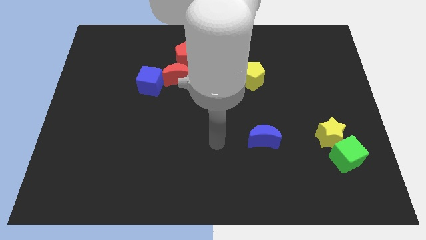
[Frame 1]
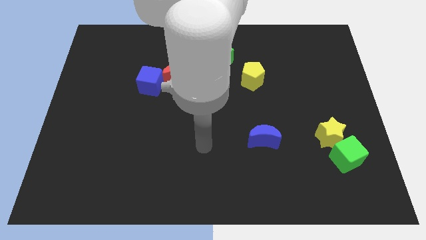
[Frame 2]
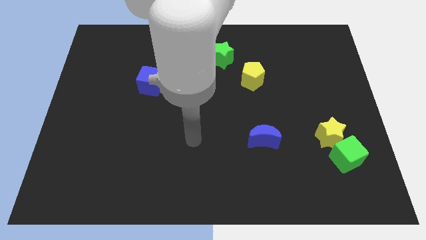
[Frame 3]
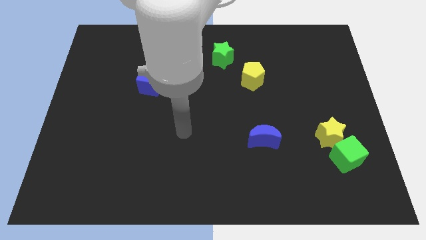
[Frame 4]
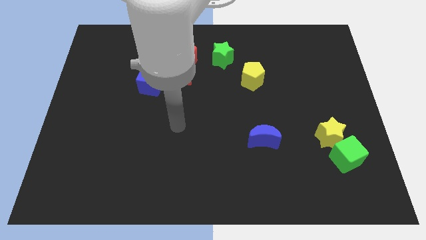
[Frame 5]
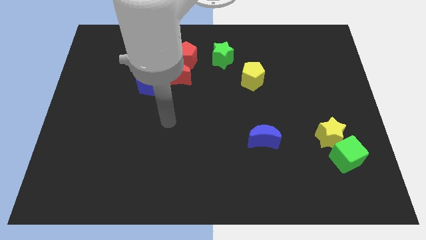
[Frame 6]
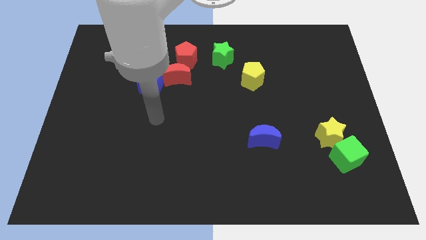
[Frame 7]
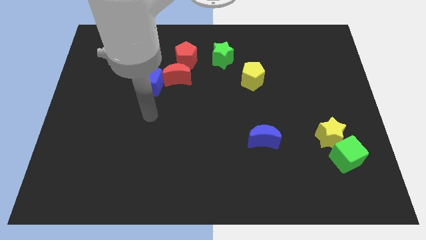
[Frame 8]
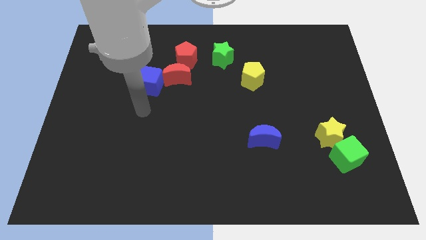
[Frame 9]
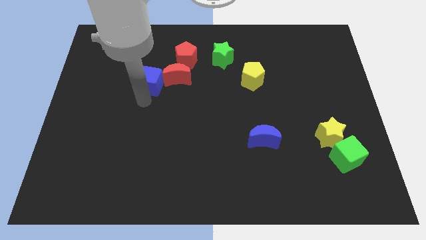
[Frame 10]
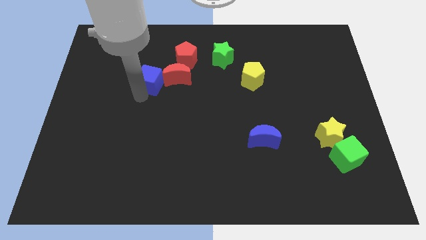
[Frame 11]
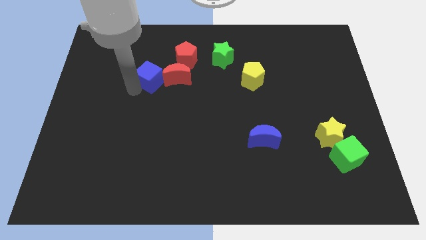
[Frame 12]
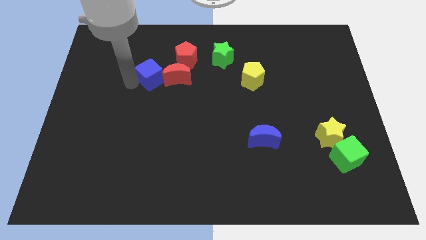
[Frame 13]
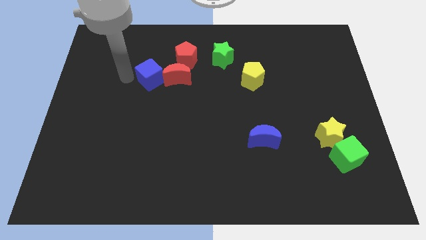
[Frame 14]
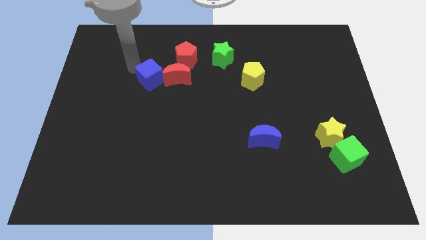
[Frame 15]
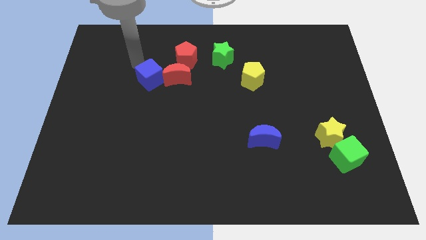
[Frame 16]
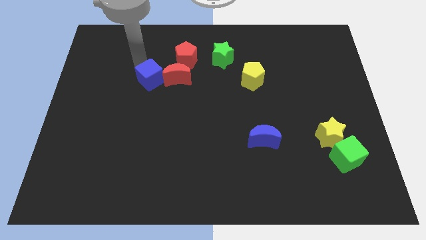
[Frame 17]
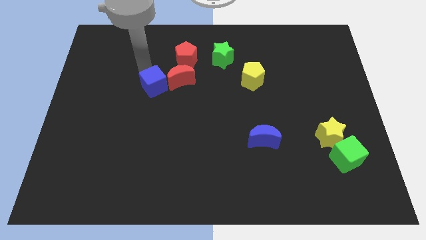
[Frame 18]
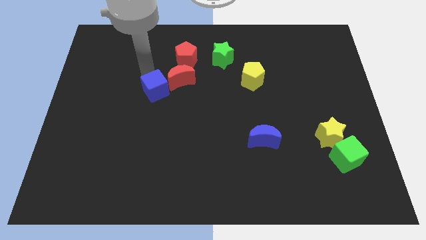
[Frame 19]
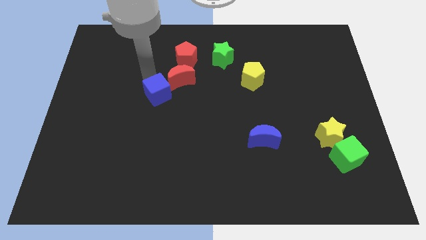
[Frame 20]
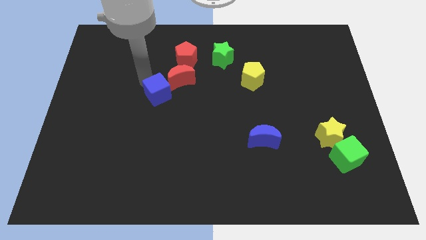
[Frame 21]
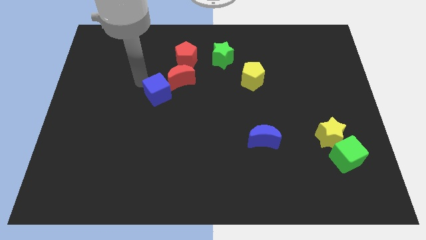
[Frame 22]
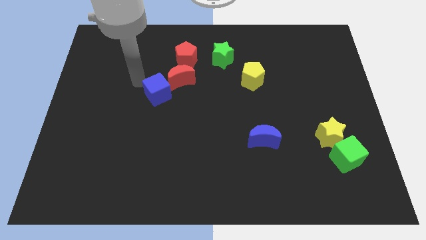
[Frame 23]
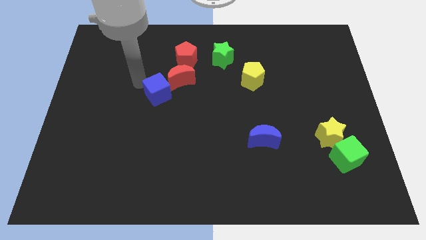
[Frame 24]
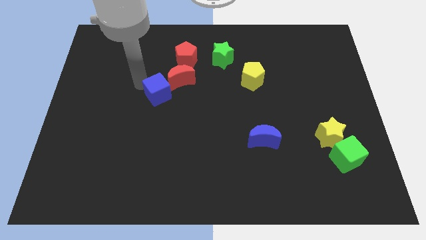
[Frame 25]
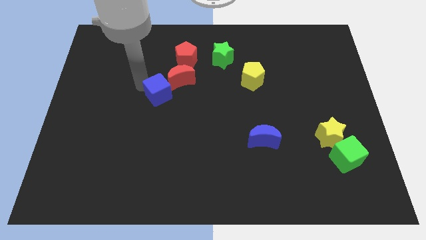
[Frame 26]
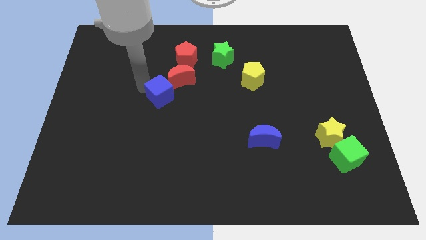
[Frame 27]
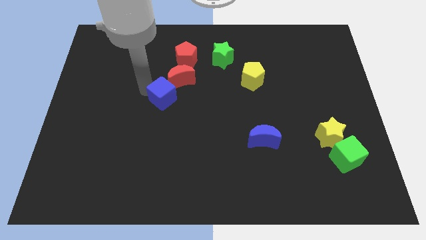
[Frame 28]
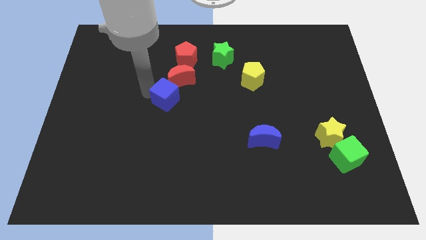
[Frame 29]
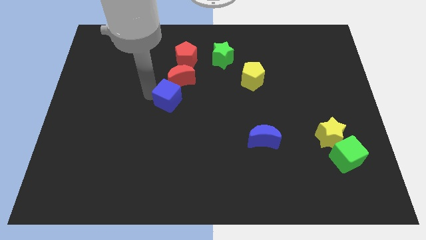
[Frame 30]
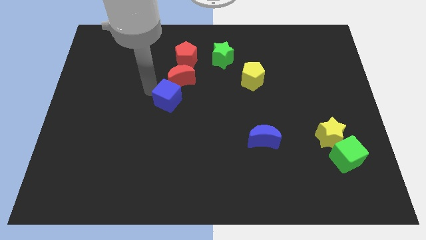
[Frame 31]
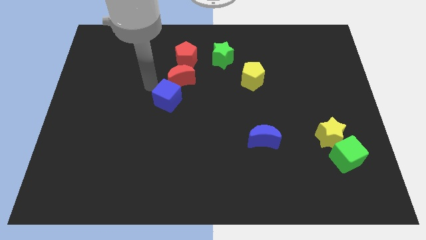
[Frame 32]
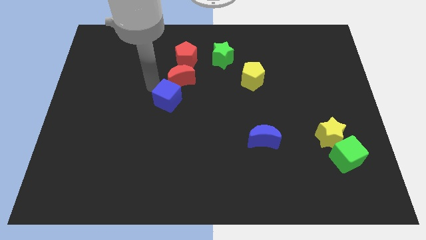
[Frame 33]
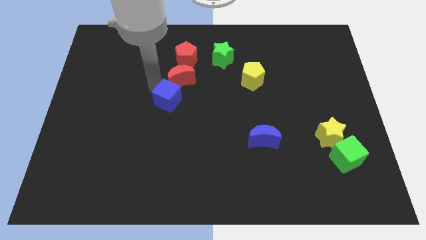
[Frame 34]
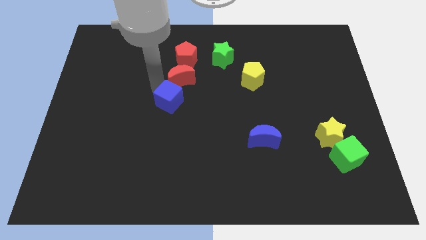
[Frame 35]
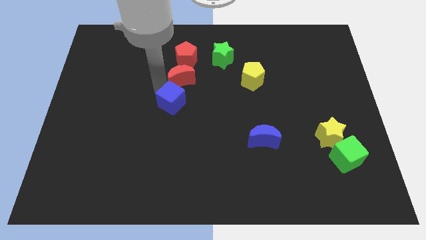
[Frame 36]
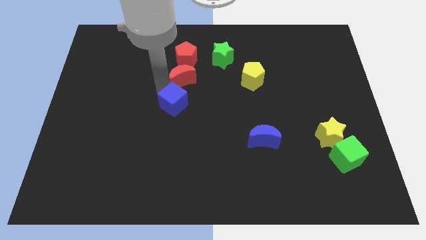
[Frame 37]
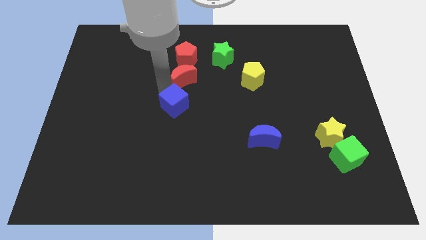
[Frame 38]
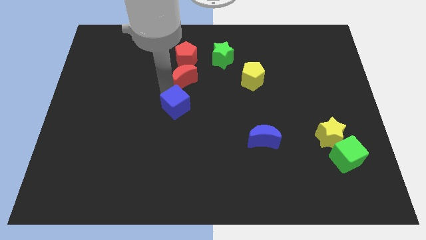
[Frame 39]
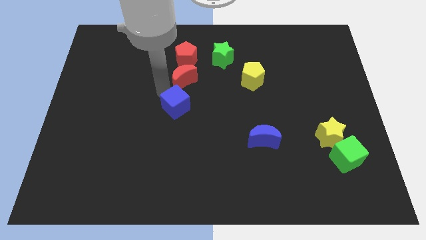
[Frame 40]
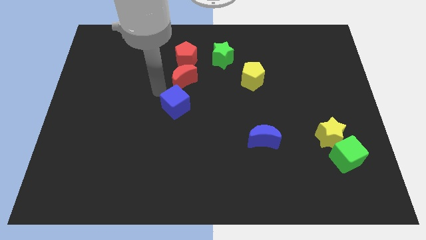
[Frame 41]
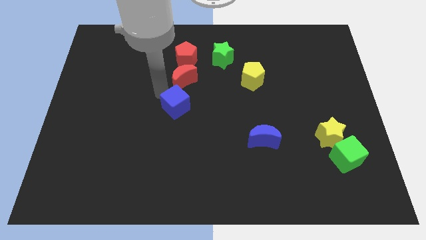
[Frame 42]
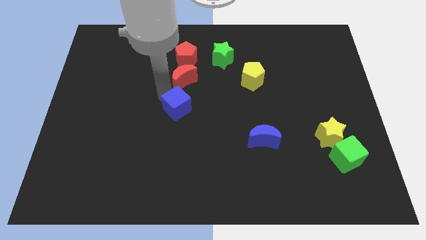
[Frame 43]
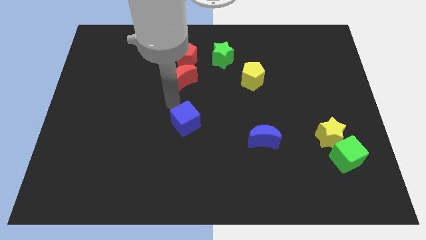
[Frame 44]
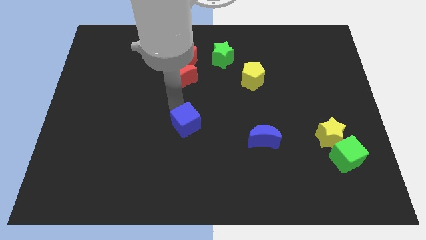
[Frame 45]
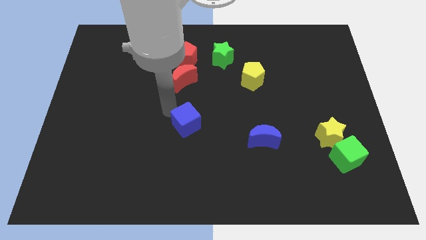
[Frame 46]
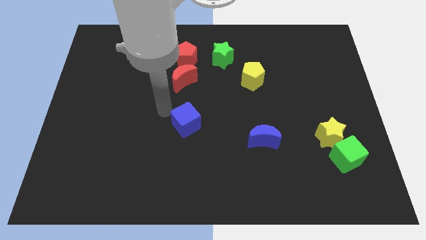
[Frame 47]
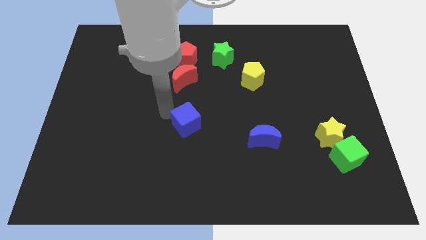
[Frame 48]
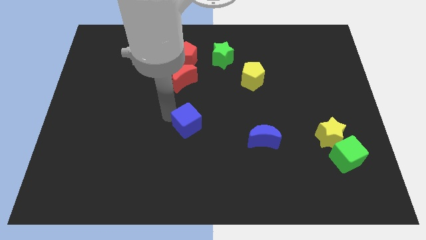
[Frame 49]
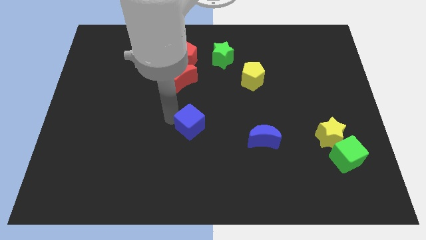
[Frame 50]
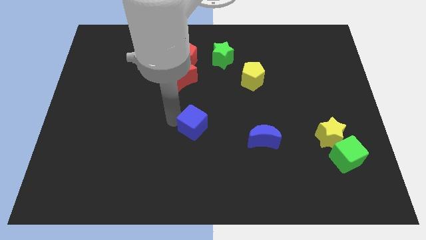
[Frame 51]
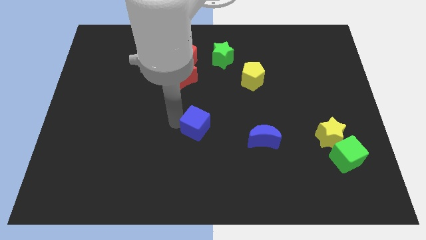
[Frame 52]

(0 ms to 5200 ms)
put the blue cube to the left of the blue moon

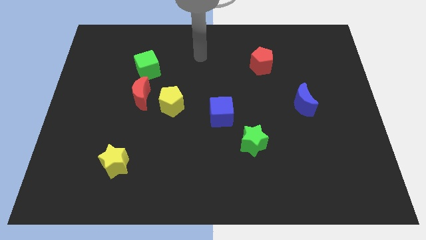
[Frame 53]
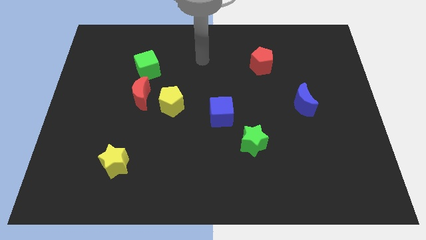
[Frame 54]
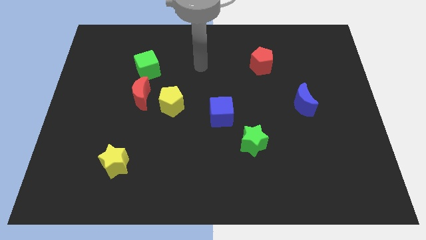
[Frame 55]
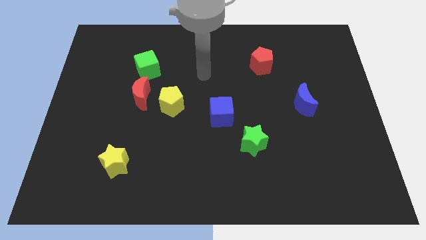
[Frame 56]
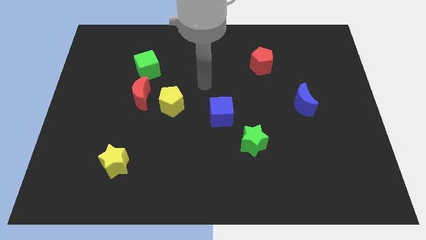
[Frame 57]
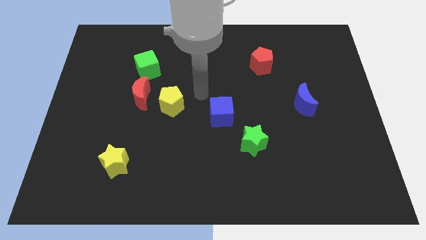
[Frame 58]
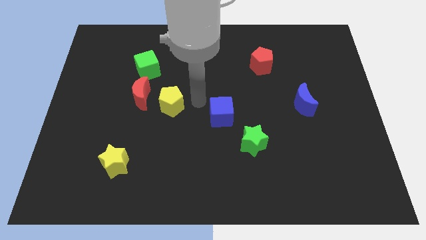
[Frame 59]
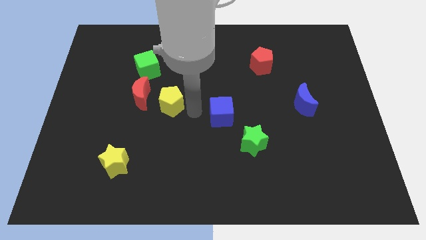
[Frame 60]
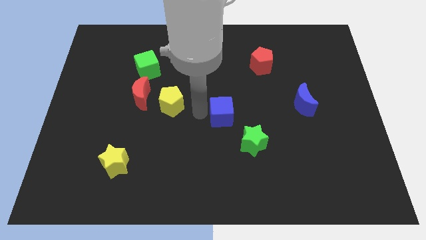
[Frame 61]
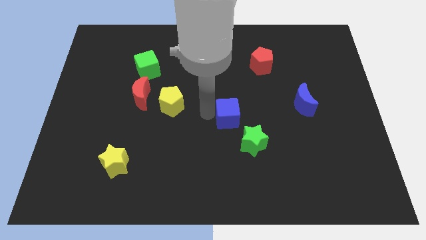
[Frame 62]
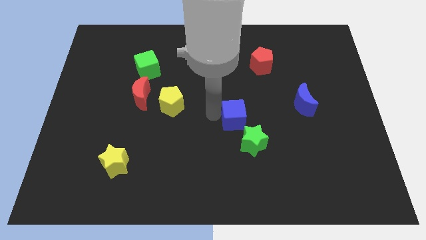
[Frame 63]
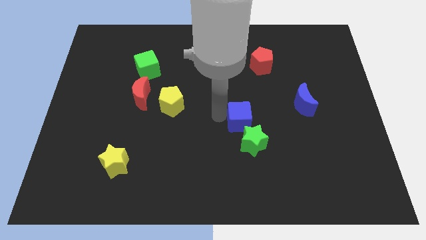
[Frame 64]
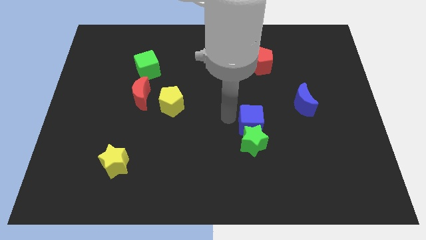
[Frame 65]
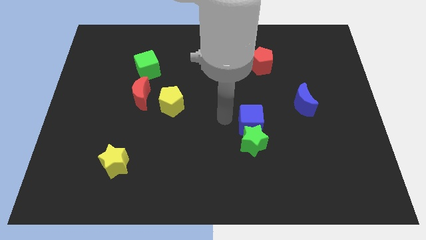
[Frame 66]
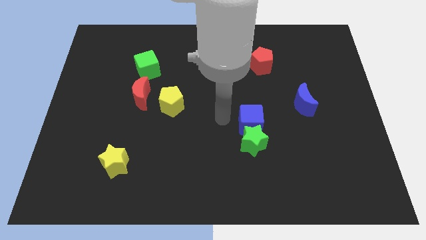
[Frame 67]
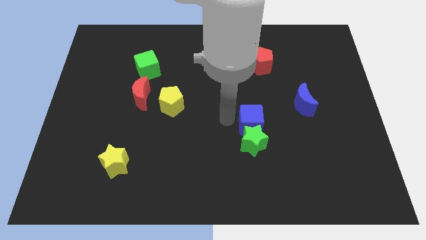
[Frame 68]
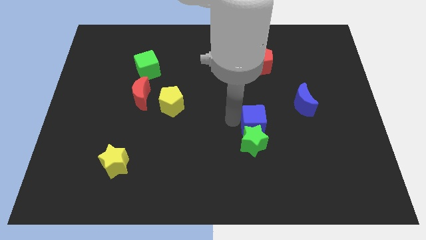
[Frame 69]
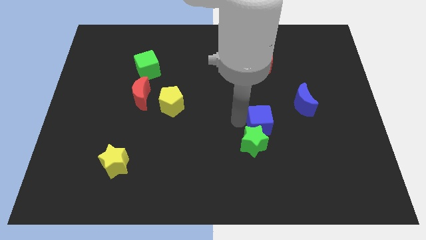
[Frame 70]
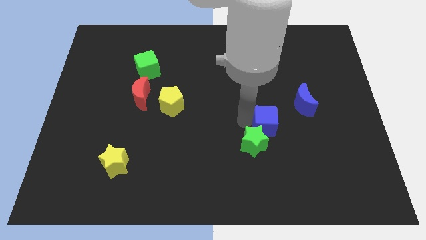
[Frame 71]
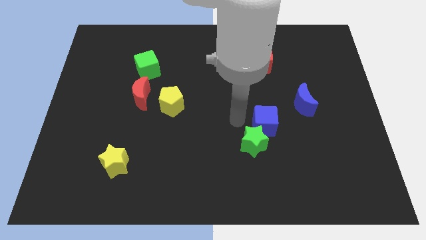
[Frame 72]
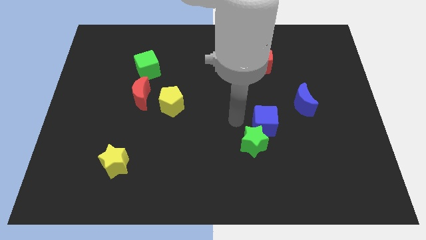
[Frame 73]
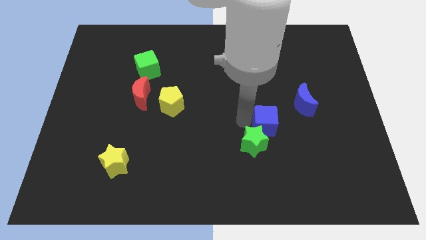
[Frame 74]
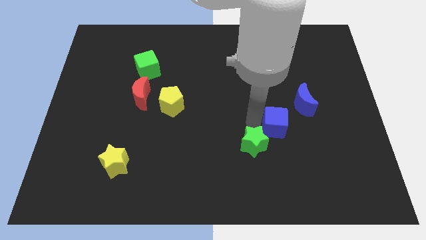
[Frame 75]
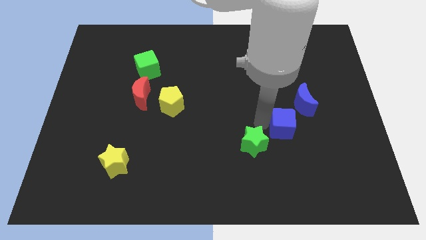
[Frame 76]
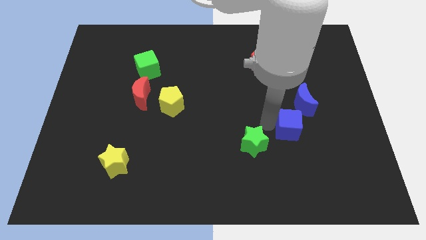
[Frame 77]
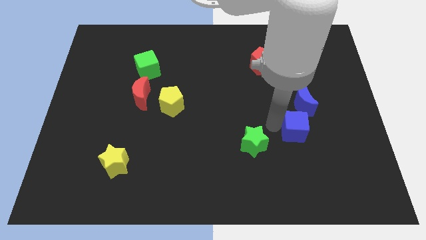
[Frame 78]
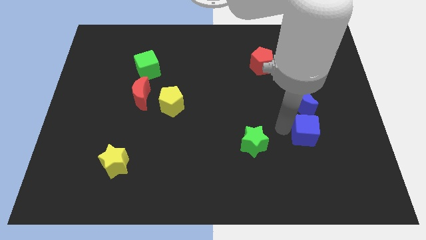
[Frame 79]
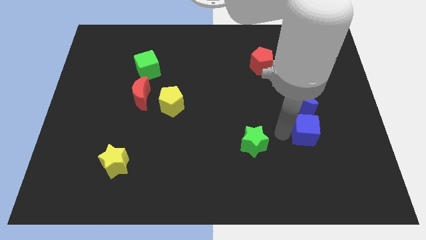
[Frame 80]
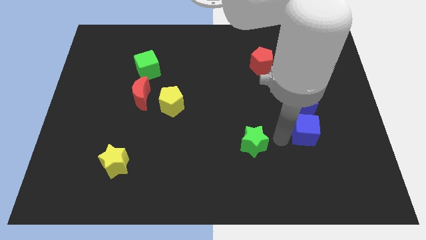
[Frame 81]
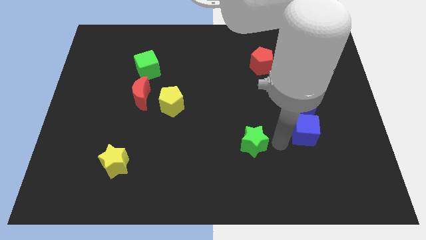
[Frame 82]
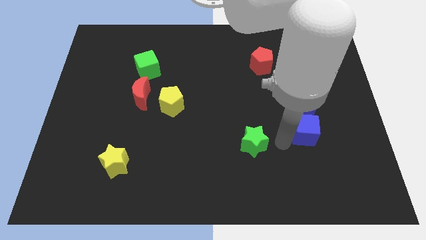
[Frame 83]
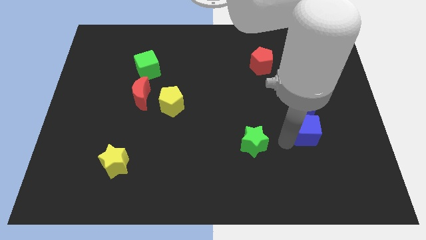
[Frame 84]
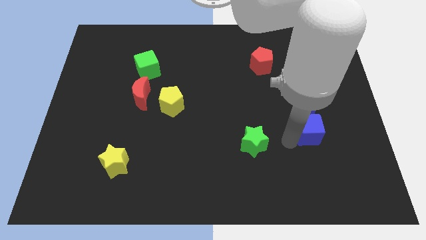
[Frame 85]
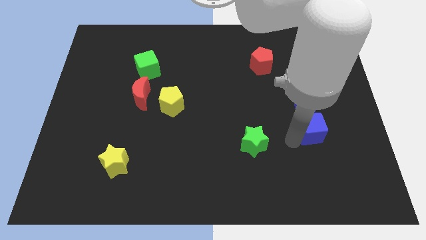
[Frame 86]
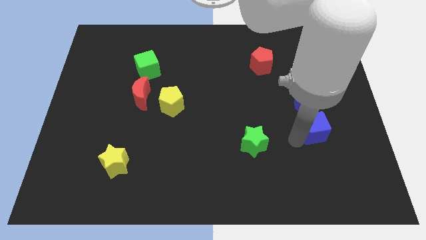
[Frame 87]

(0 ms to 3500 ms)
move the blue cube diagonally down and to the right of the blue moon
